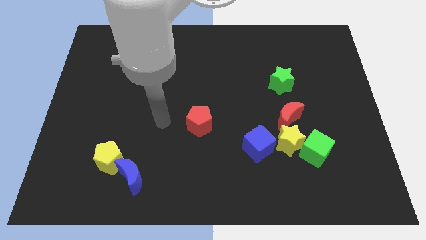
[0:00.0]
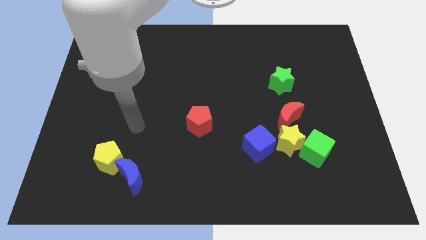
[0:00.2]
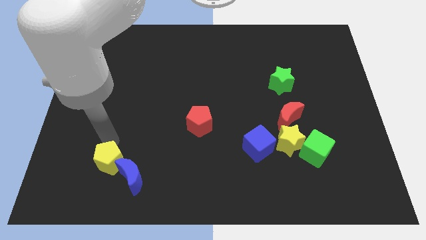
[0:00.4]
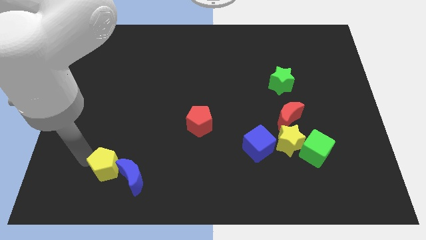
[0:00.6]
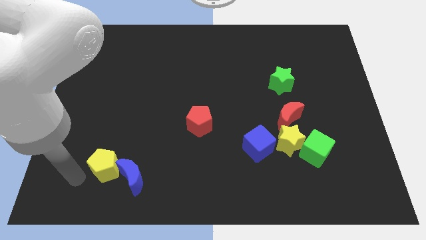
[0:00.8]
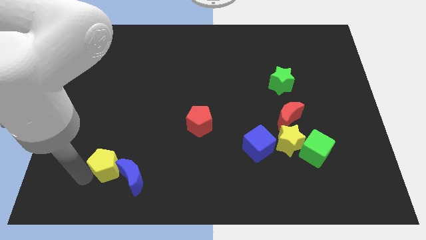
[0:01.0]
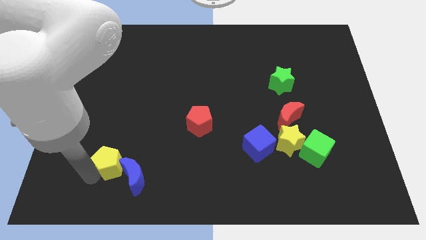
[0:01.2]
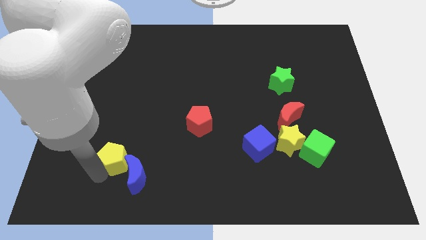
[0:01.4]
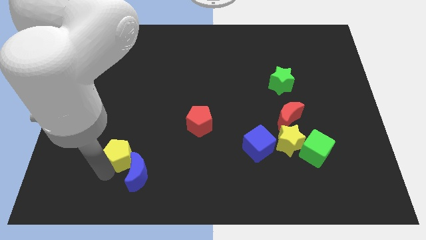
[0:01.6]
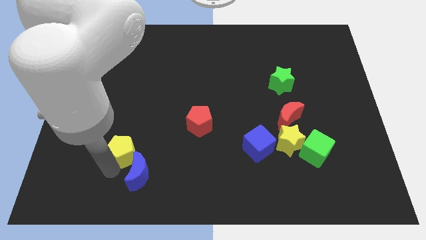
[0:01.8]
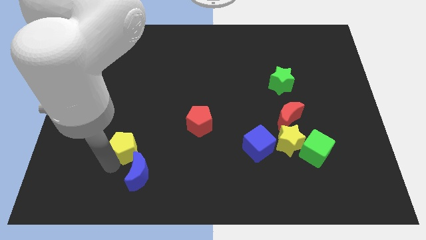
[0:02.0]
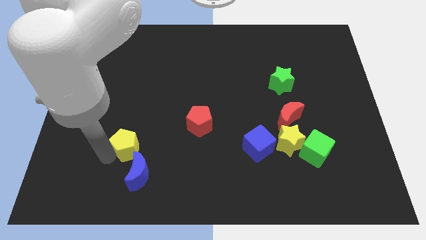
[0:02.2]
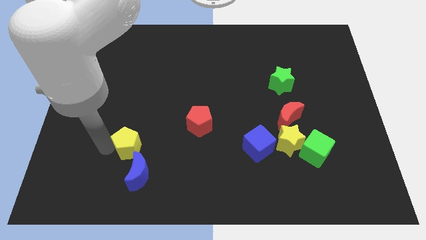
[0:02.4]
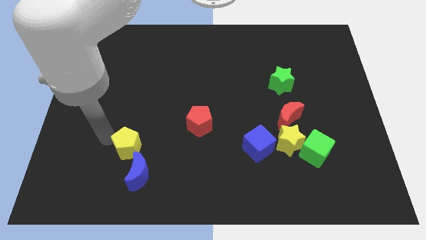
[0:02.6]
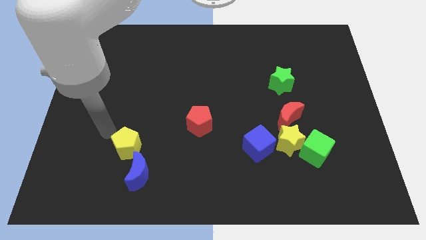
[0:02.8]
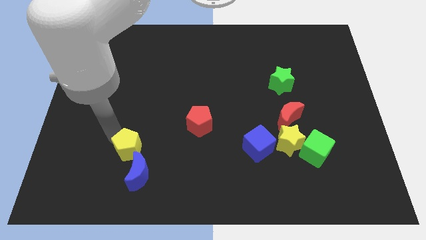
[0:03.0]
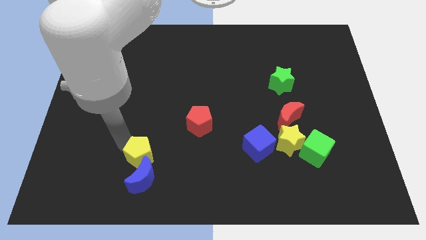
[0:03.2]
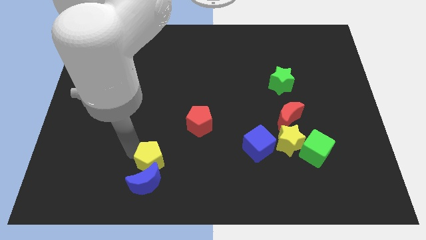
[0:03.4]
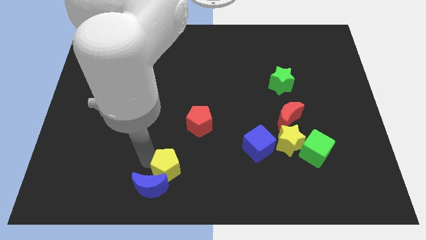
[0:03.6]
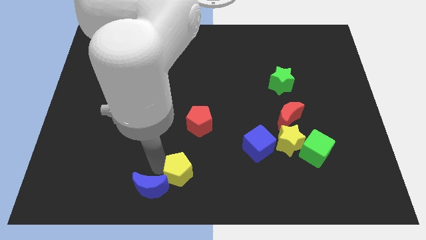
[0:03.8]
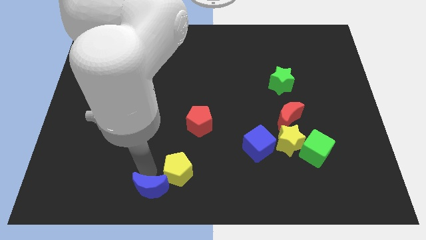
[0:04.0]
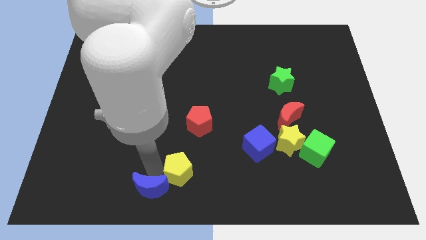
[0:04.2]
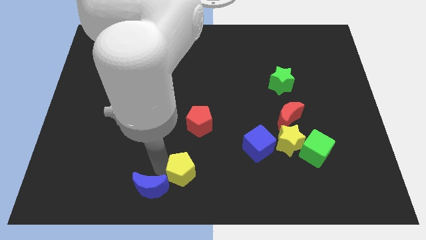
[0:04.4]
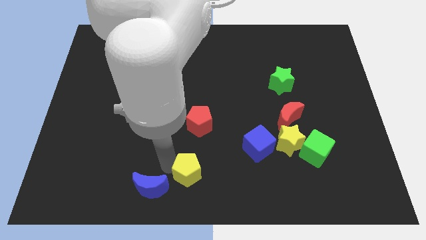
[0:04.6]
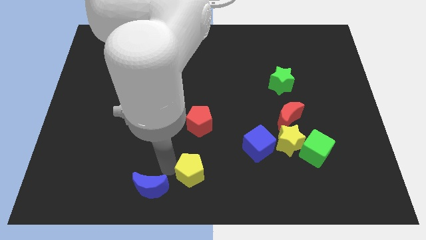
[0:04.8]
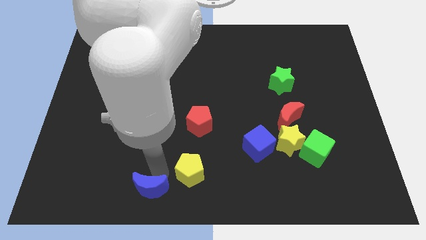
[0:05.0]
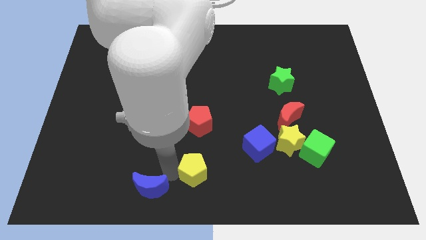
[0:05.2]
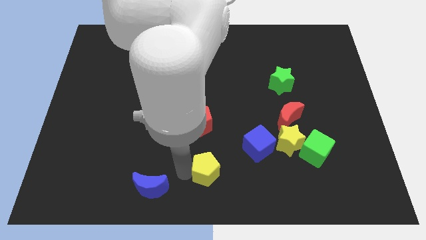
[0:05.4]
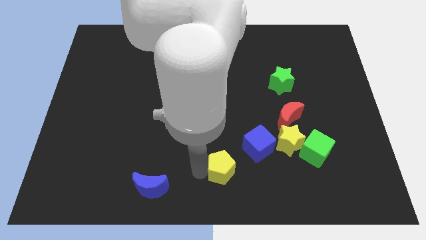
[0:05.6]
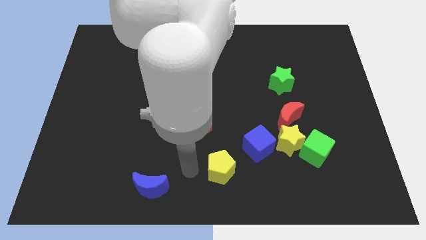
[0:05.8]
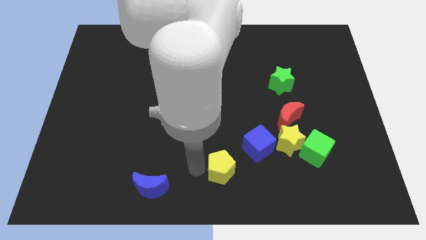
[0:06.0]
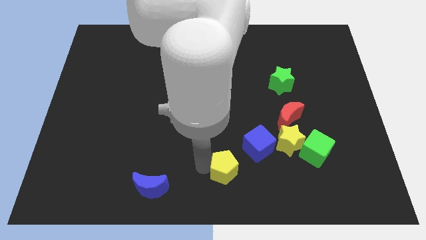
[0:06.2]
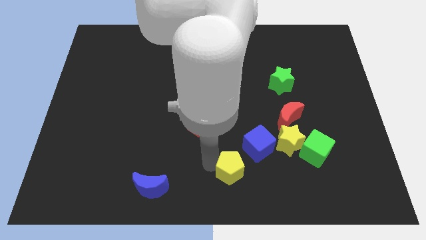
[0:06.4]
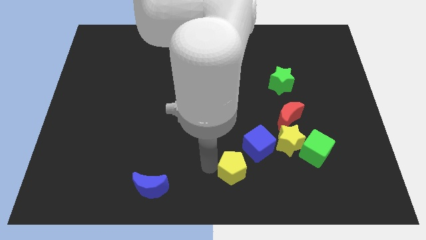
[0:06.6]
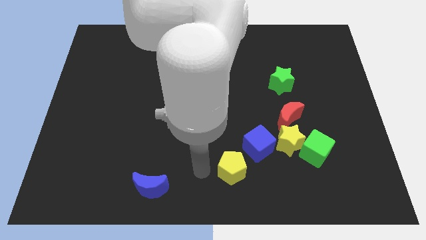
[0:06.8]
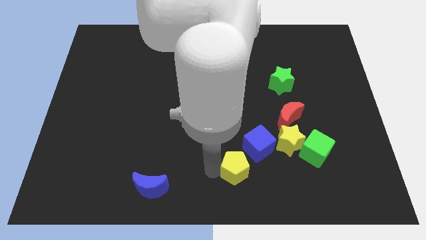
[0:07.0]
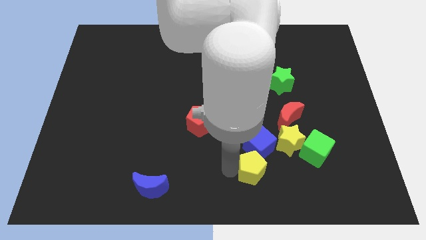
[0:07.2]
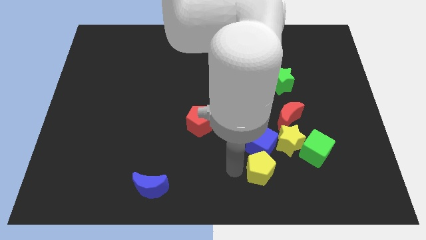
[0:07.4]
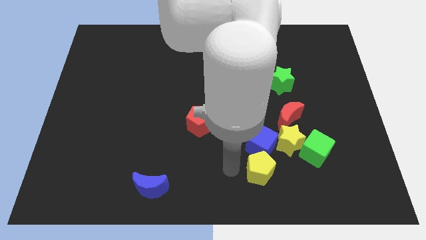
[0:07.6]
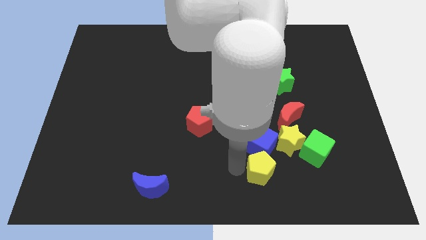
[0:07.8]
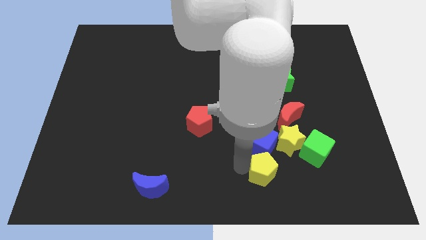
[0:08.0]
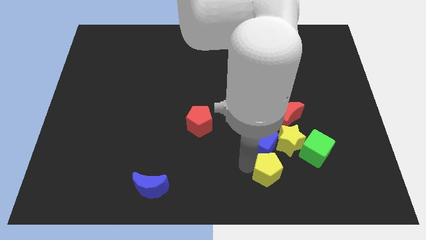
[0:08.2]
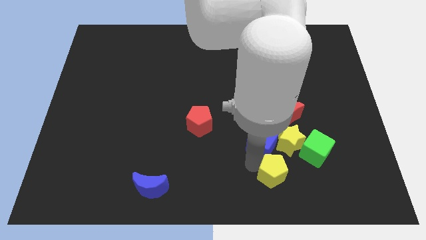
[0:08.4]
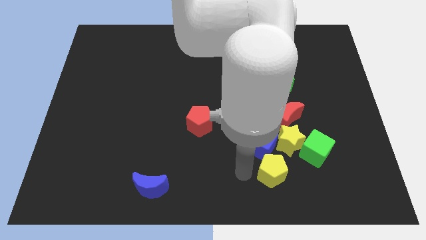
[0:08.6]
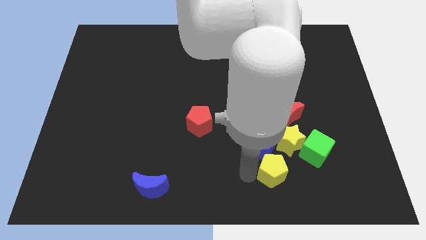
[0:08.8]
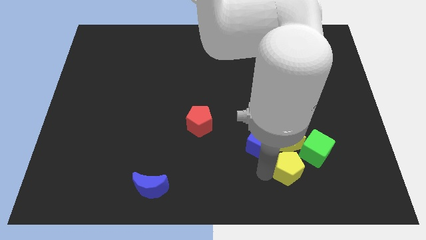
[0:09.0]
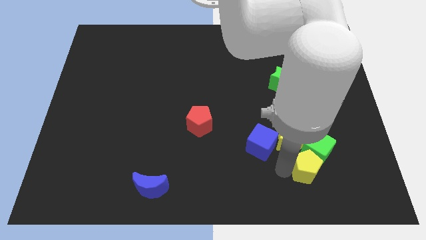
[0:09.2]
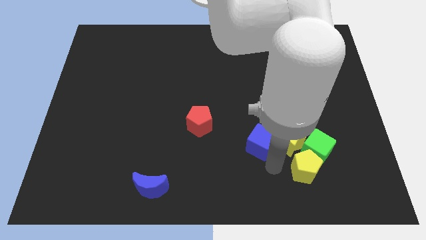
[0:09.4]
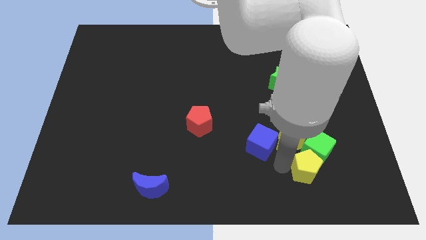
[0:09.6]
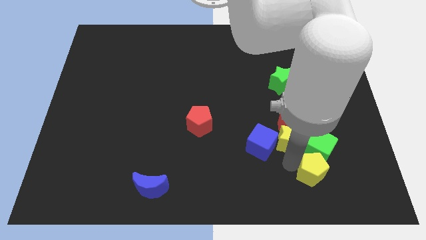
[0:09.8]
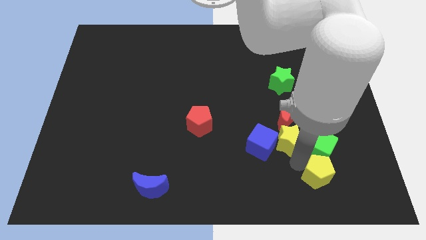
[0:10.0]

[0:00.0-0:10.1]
slide the yellow pentagon diagonally down and to the right of the green cube

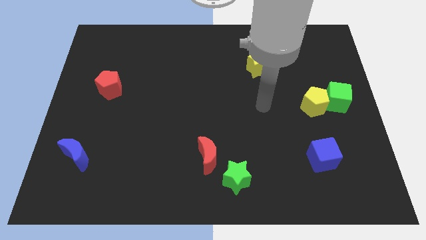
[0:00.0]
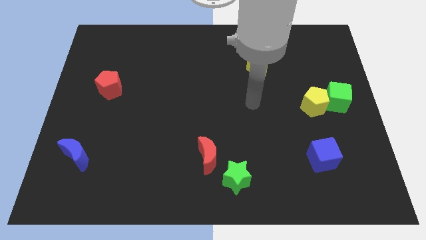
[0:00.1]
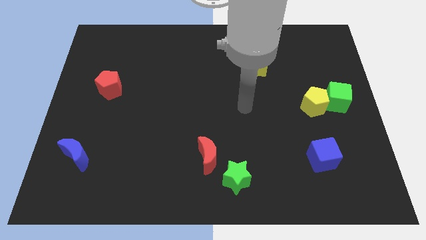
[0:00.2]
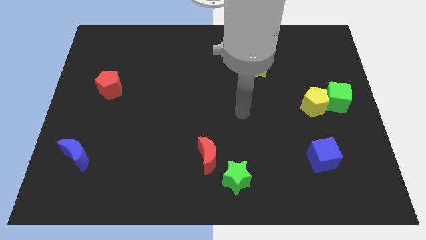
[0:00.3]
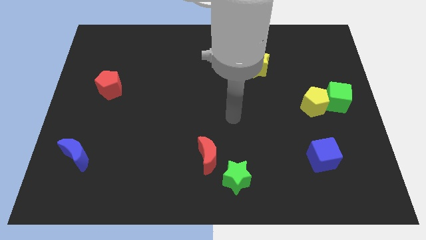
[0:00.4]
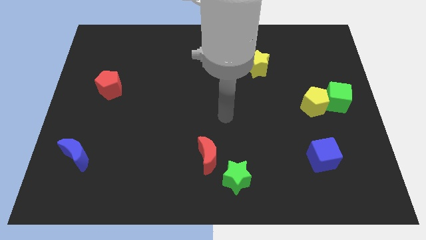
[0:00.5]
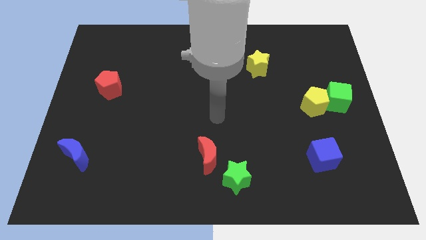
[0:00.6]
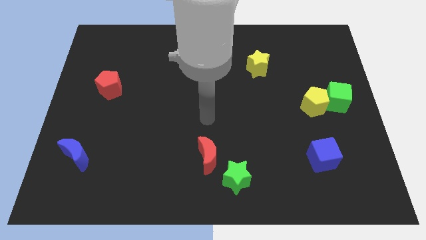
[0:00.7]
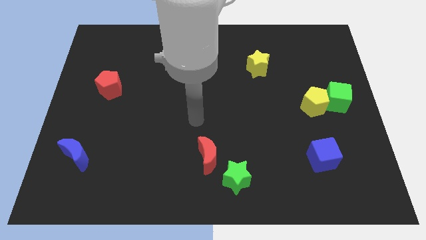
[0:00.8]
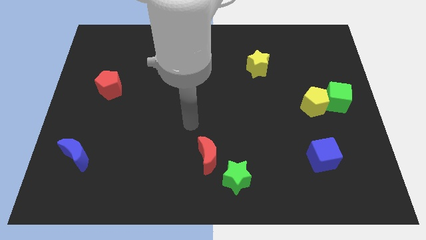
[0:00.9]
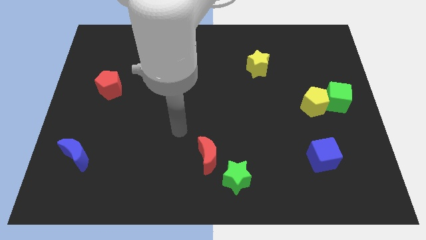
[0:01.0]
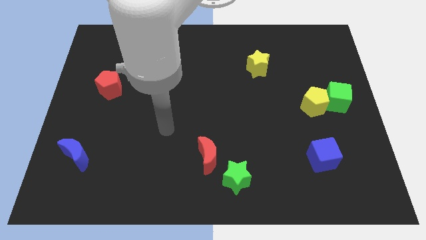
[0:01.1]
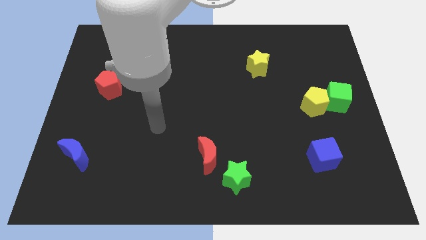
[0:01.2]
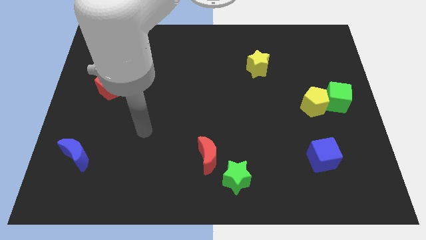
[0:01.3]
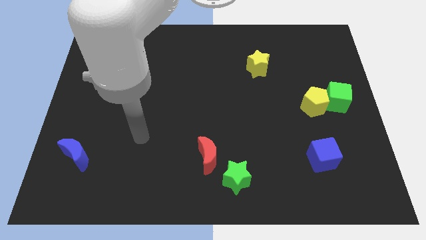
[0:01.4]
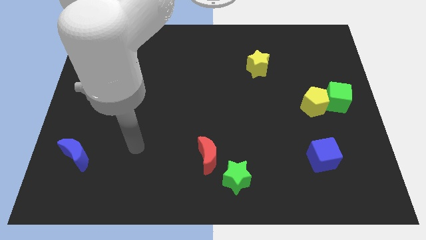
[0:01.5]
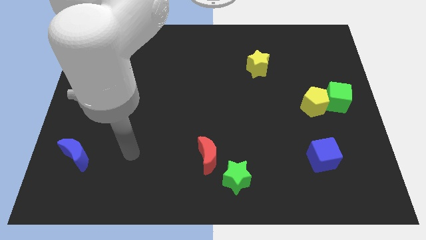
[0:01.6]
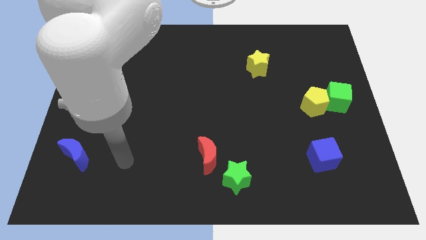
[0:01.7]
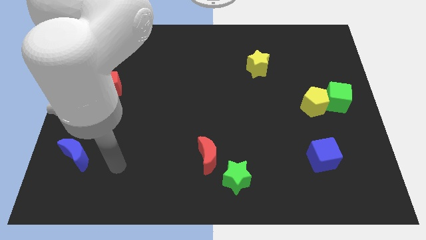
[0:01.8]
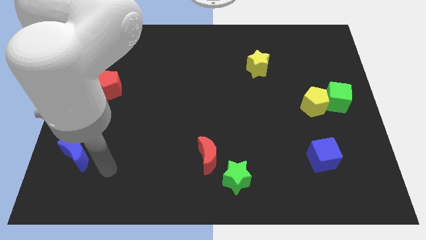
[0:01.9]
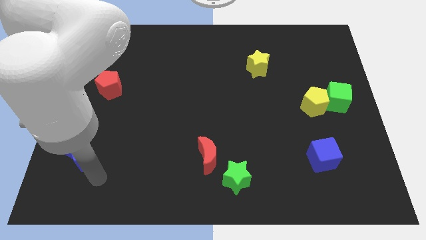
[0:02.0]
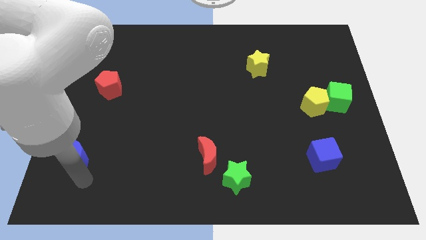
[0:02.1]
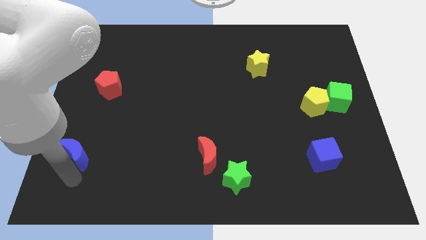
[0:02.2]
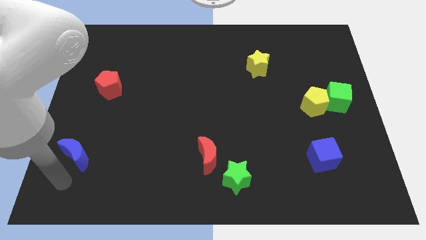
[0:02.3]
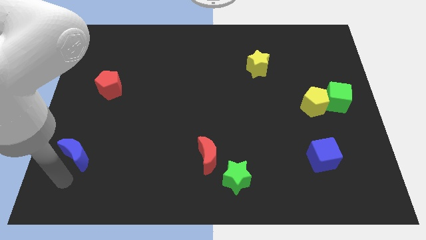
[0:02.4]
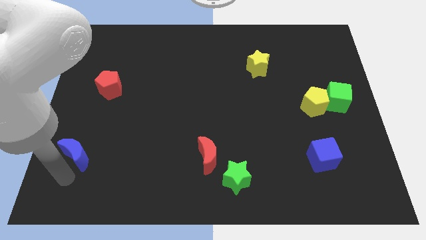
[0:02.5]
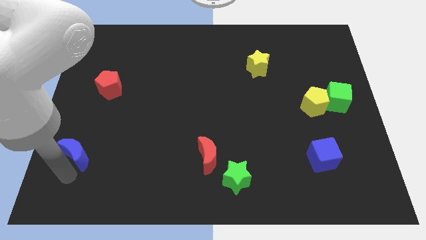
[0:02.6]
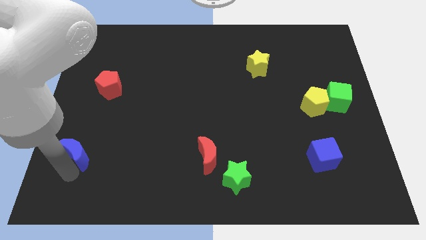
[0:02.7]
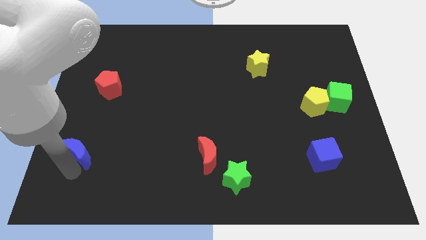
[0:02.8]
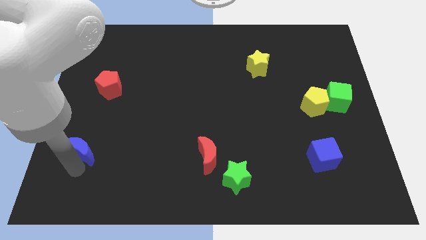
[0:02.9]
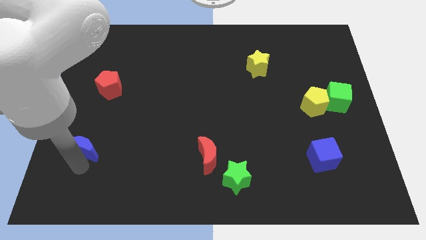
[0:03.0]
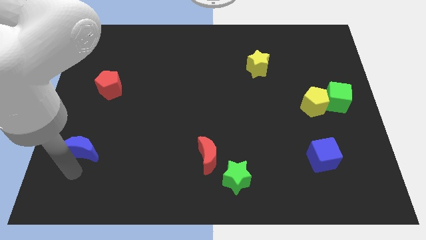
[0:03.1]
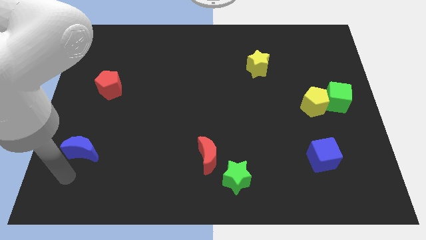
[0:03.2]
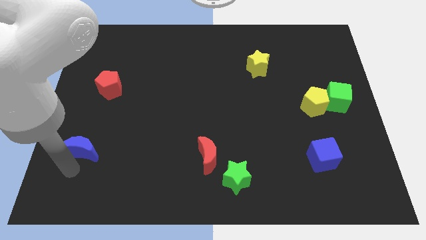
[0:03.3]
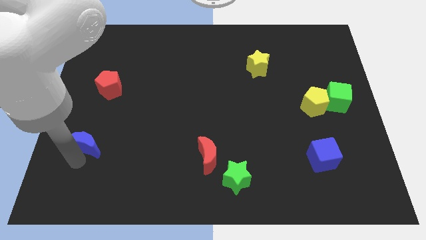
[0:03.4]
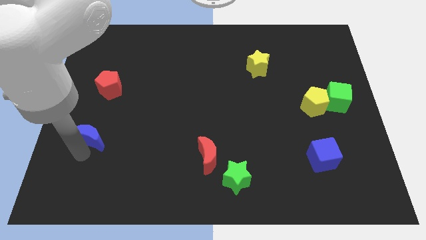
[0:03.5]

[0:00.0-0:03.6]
put the blue moon below the red pentagon
